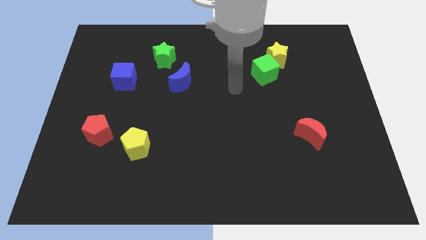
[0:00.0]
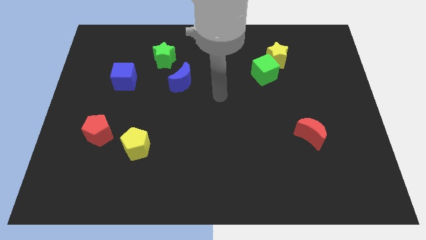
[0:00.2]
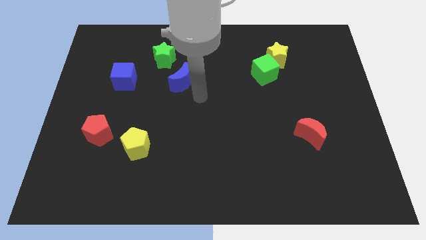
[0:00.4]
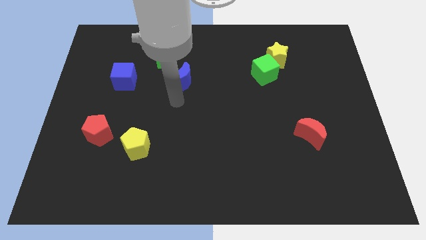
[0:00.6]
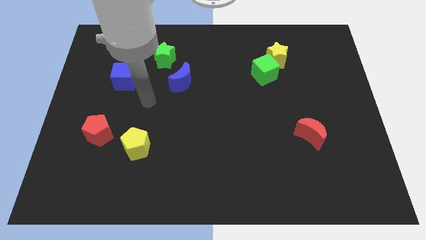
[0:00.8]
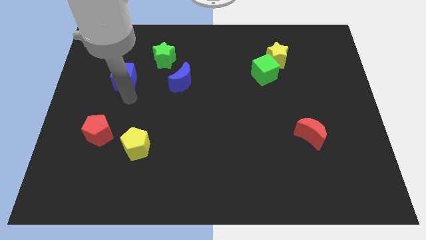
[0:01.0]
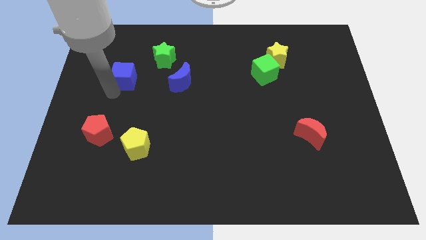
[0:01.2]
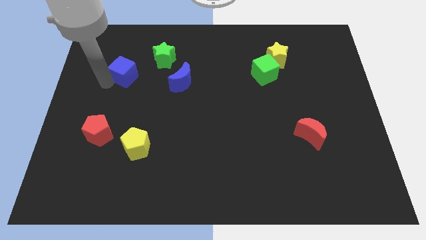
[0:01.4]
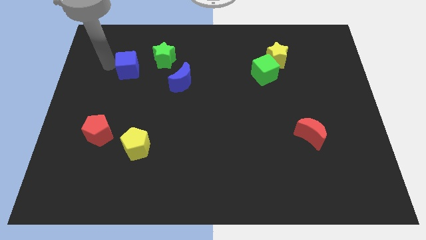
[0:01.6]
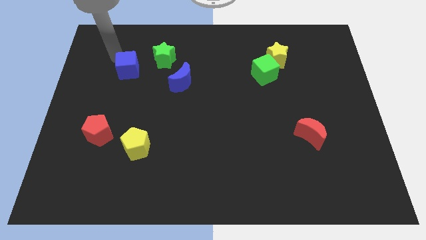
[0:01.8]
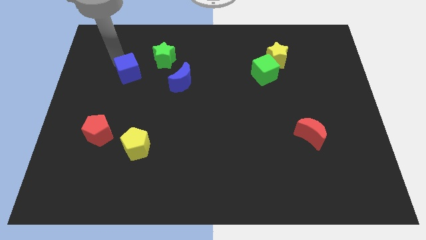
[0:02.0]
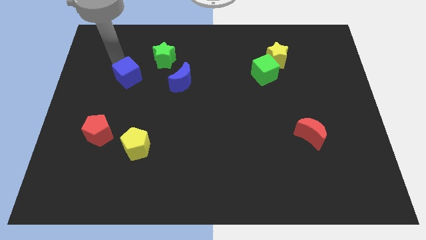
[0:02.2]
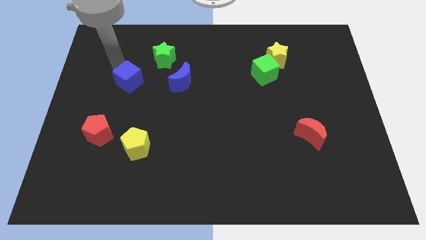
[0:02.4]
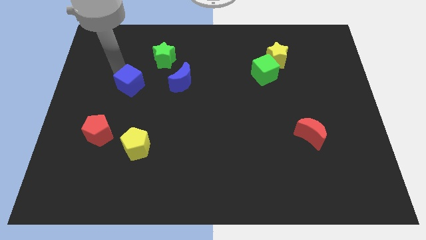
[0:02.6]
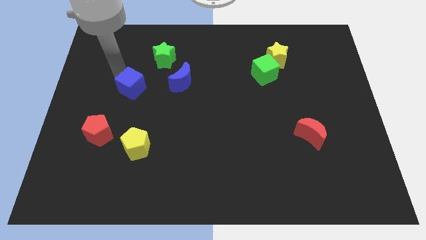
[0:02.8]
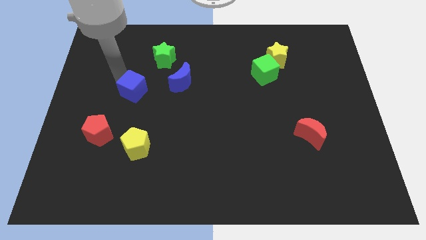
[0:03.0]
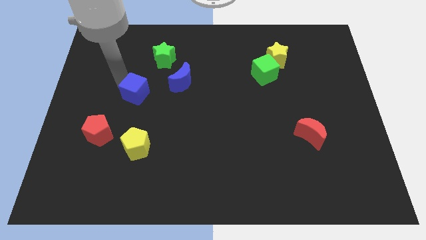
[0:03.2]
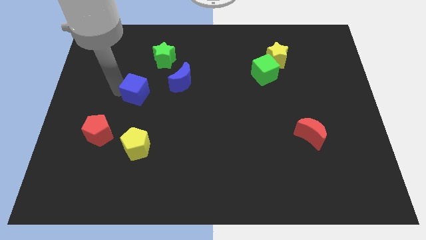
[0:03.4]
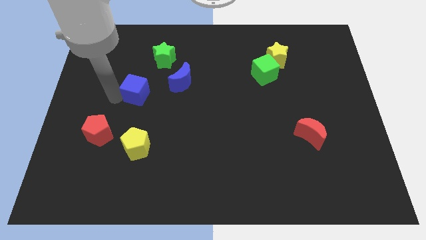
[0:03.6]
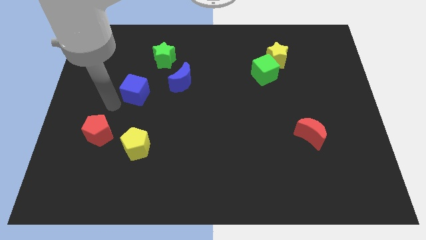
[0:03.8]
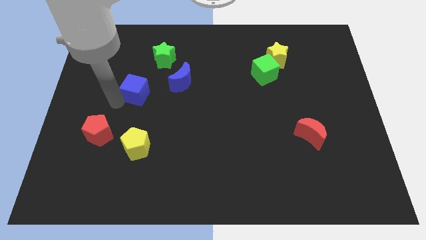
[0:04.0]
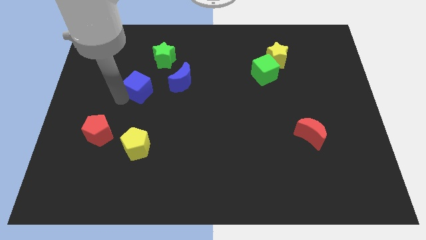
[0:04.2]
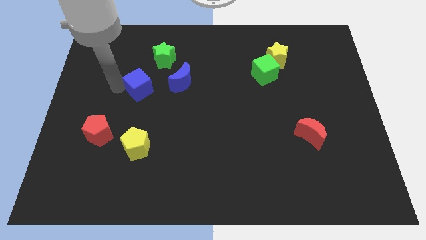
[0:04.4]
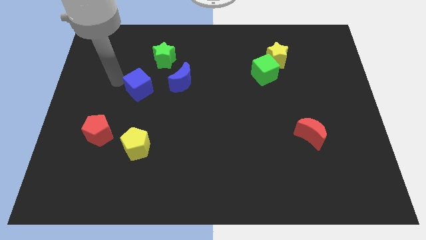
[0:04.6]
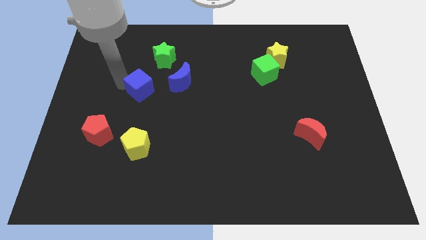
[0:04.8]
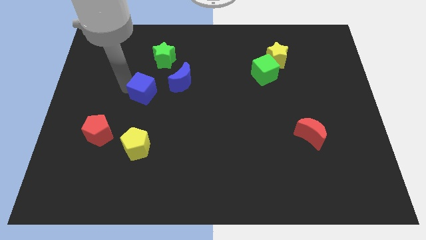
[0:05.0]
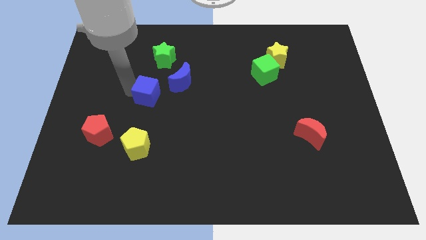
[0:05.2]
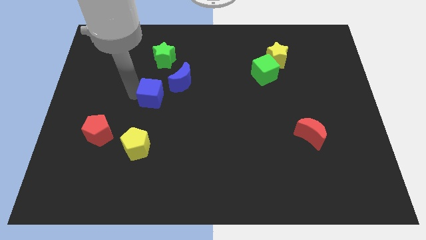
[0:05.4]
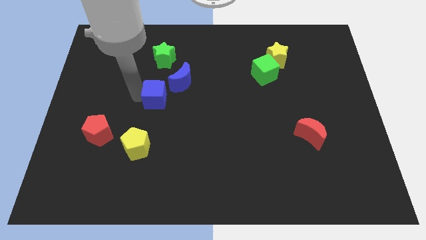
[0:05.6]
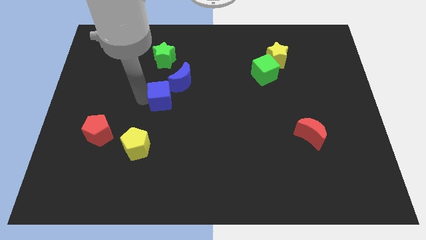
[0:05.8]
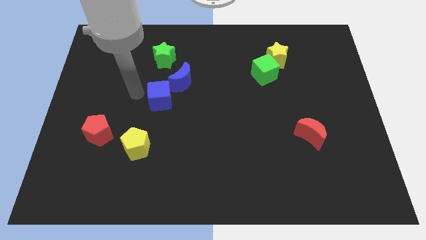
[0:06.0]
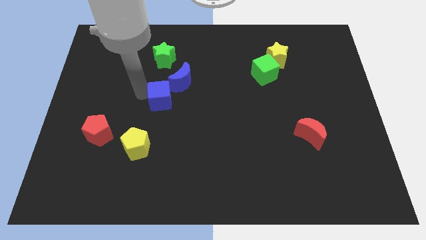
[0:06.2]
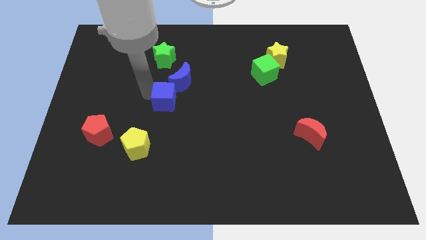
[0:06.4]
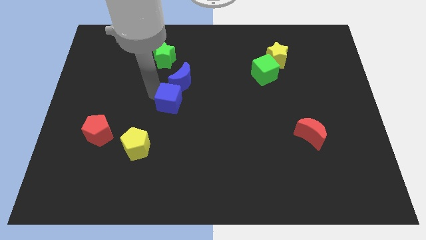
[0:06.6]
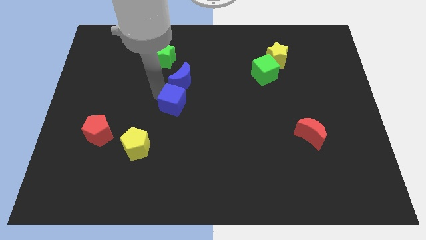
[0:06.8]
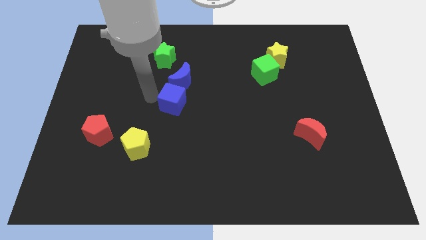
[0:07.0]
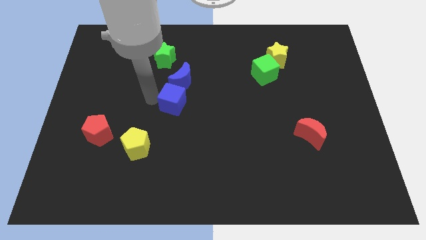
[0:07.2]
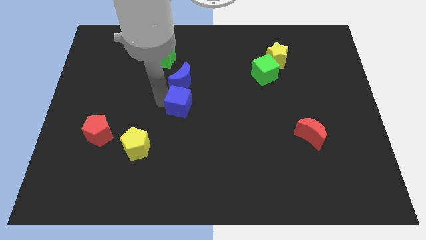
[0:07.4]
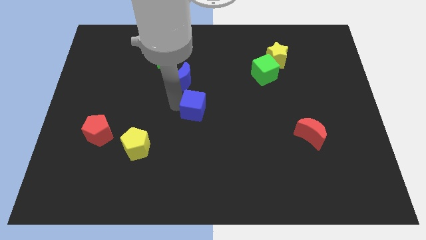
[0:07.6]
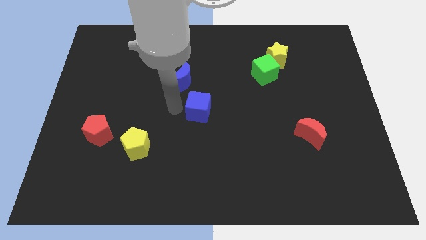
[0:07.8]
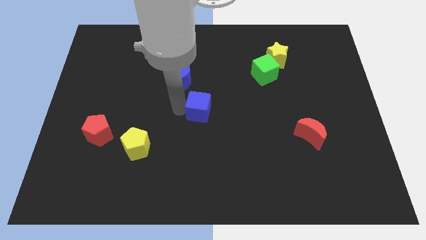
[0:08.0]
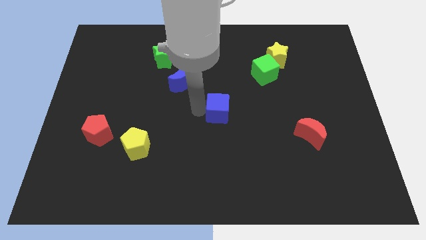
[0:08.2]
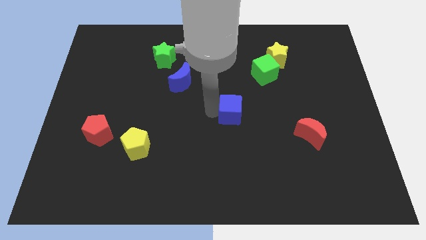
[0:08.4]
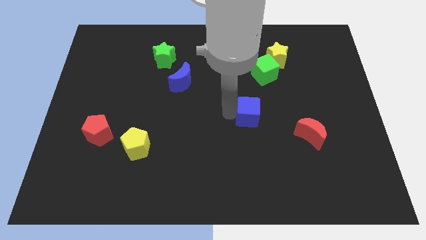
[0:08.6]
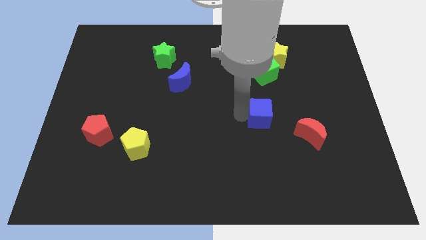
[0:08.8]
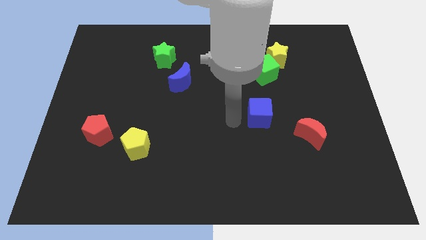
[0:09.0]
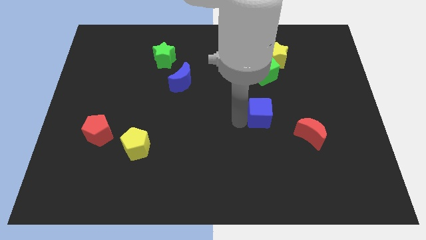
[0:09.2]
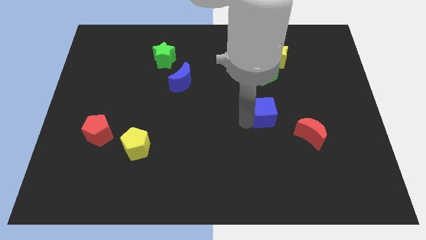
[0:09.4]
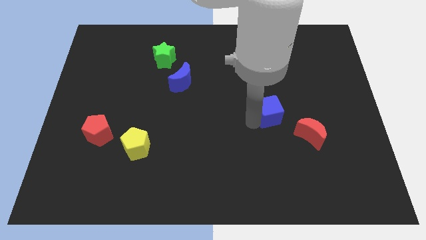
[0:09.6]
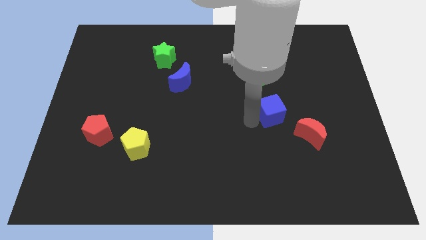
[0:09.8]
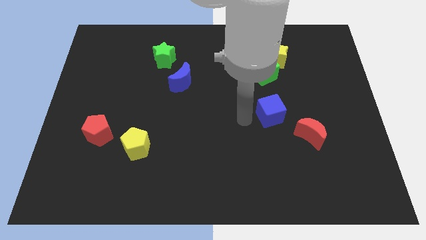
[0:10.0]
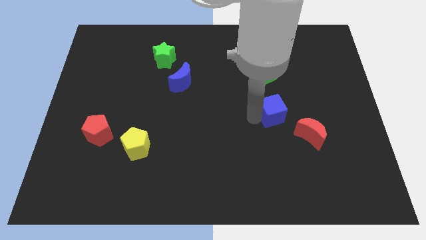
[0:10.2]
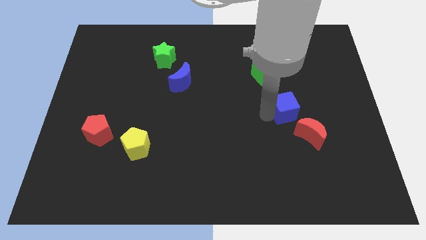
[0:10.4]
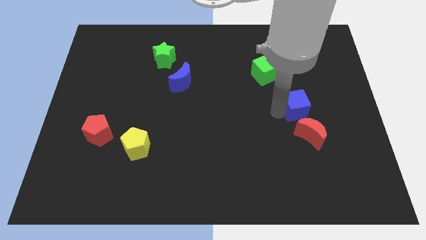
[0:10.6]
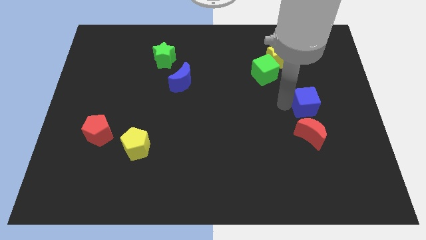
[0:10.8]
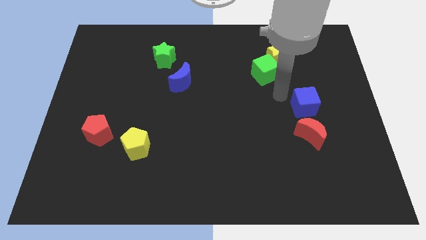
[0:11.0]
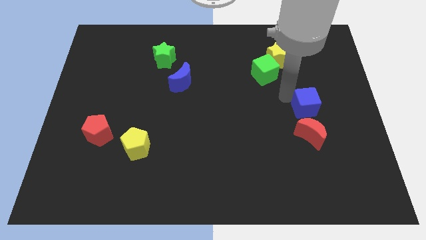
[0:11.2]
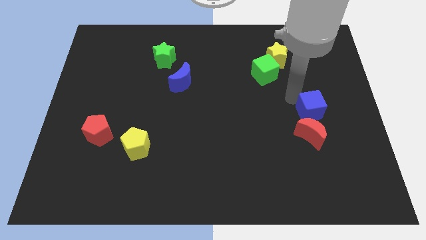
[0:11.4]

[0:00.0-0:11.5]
slide the blue cube diagonally up and to the right of the red moon

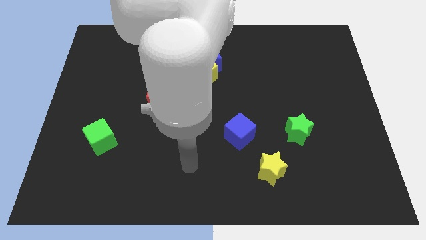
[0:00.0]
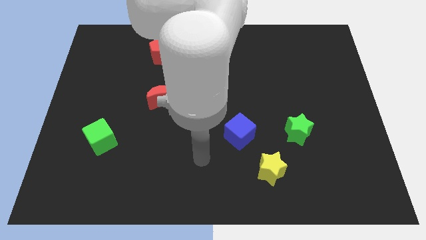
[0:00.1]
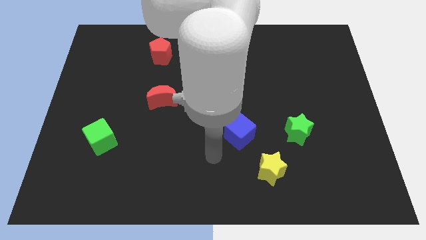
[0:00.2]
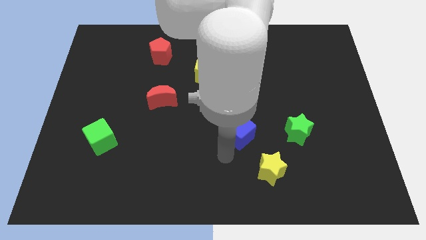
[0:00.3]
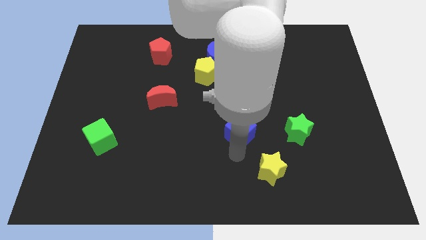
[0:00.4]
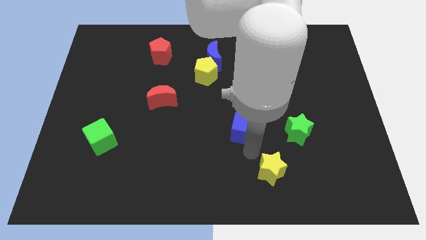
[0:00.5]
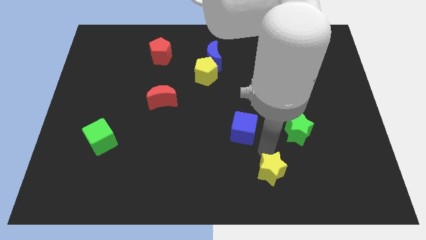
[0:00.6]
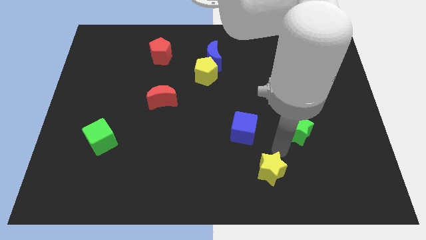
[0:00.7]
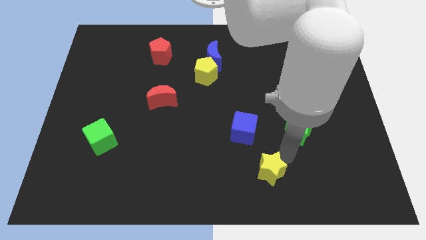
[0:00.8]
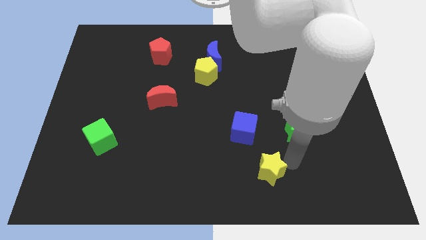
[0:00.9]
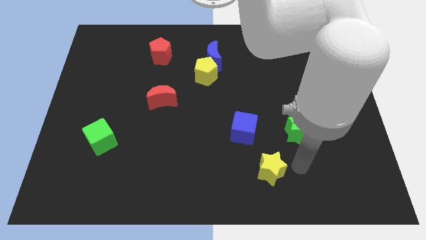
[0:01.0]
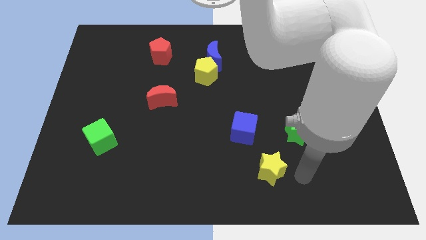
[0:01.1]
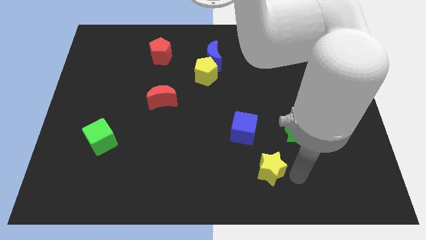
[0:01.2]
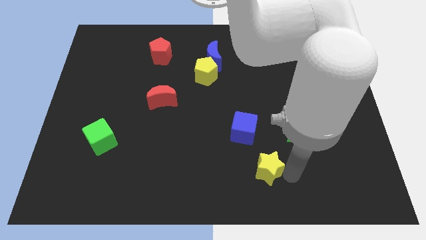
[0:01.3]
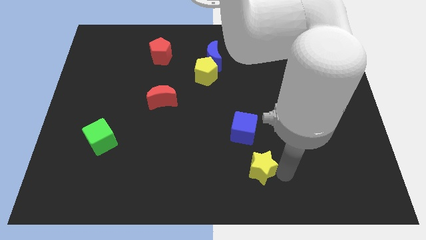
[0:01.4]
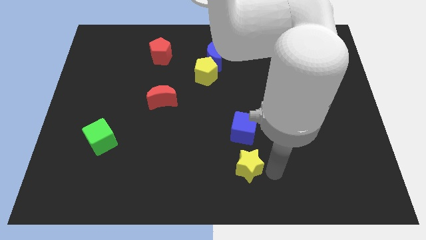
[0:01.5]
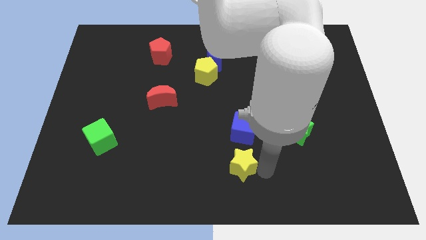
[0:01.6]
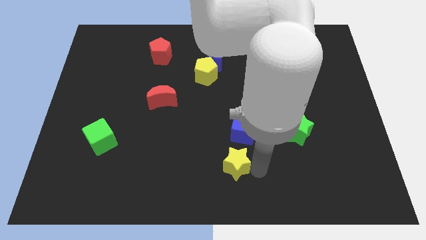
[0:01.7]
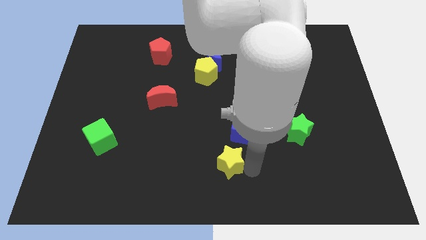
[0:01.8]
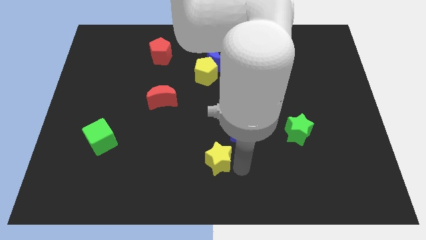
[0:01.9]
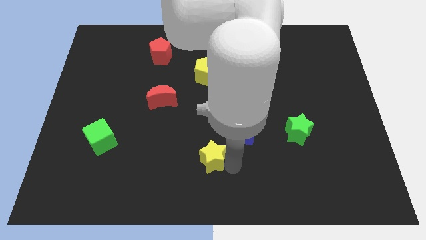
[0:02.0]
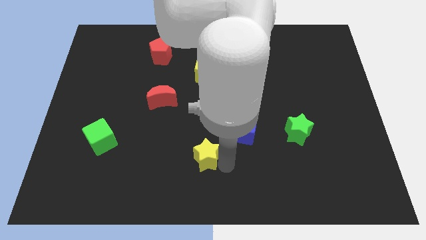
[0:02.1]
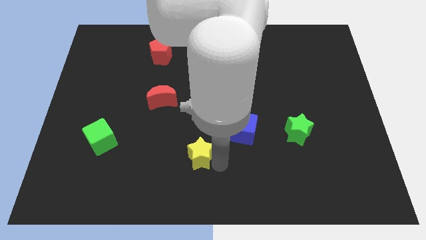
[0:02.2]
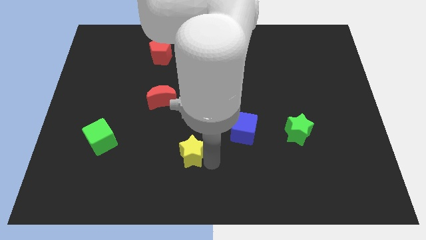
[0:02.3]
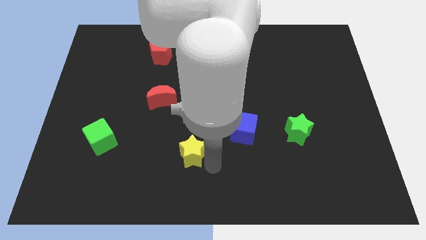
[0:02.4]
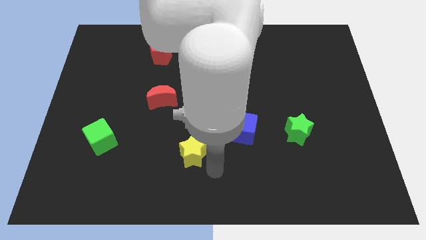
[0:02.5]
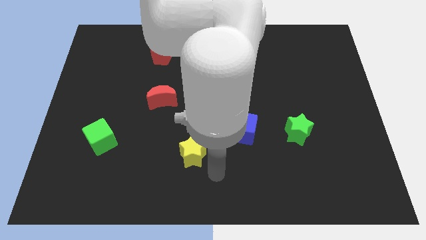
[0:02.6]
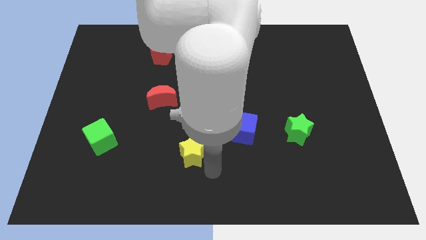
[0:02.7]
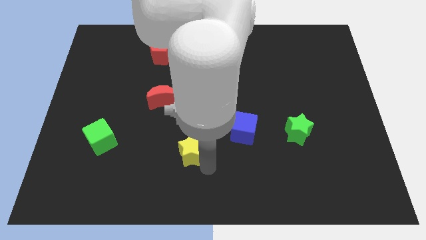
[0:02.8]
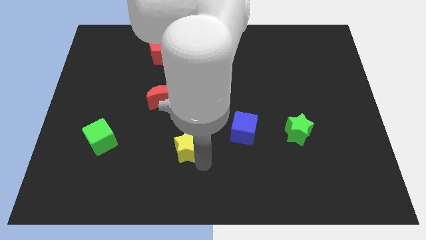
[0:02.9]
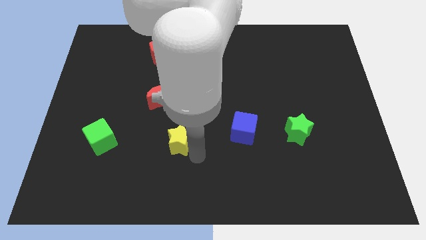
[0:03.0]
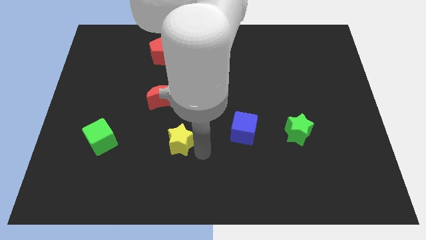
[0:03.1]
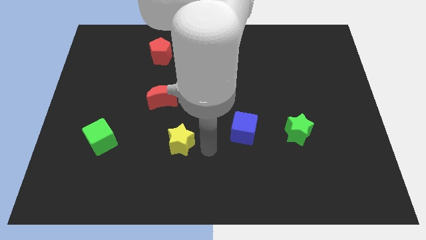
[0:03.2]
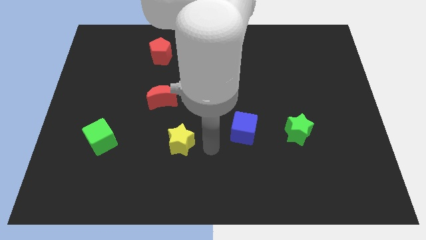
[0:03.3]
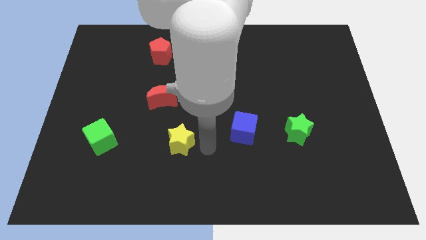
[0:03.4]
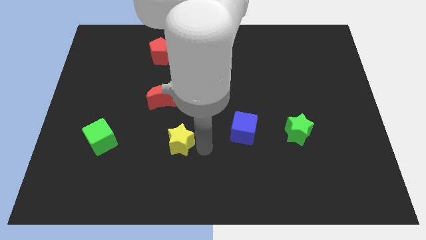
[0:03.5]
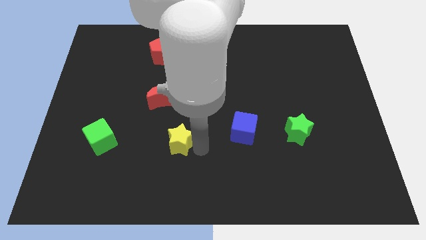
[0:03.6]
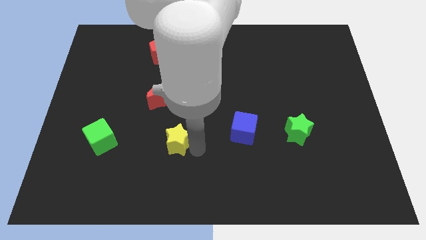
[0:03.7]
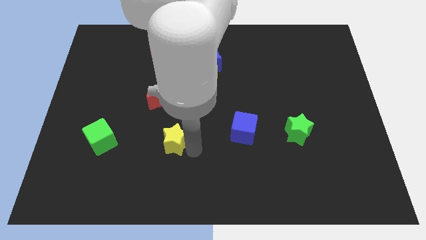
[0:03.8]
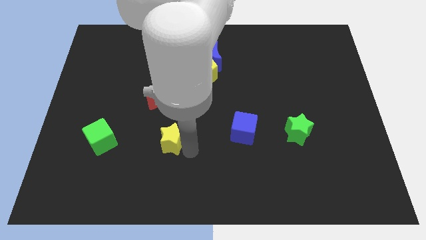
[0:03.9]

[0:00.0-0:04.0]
put the yellow star to the right side of the green cube
